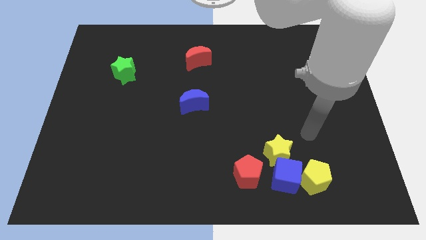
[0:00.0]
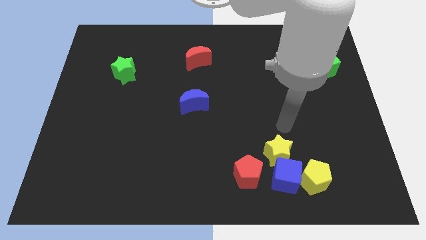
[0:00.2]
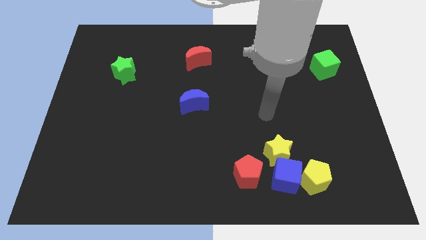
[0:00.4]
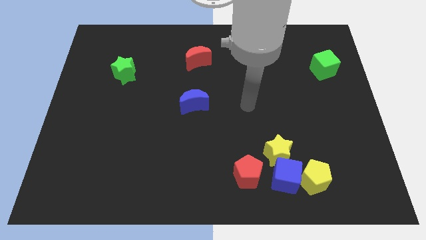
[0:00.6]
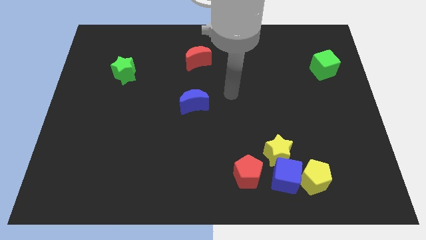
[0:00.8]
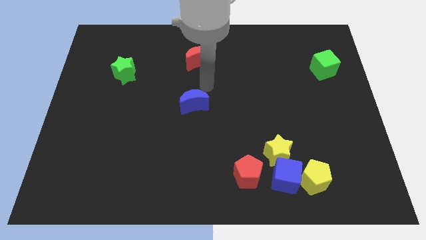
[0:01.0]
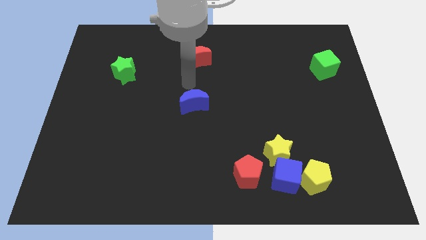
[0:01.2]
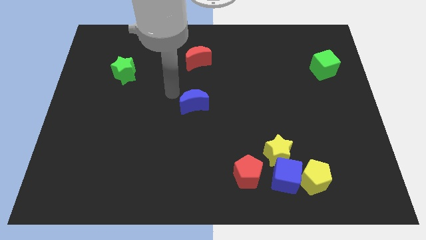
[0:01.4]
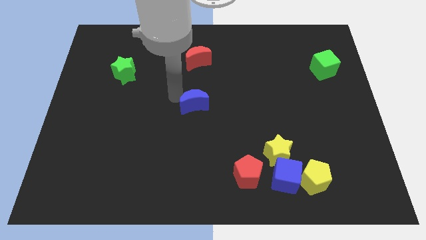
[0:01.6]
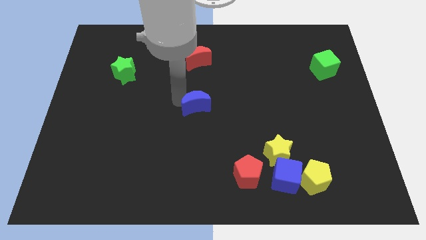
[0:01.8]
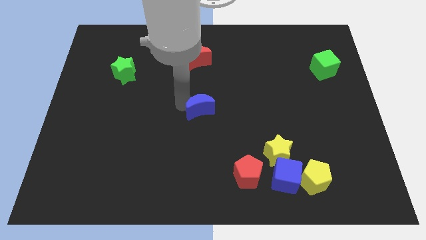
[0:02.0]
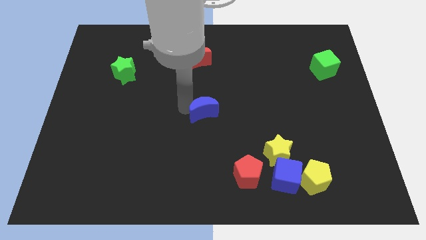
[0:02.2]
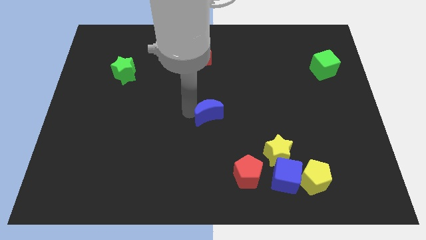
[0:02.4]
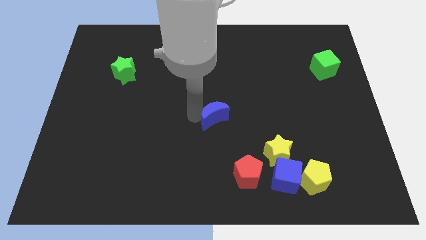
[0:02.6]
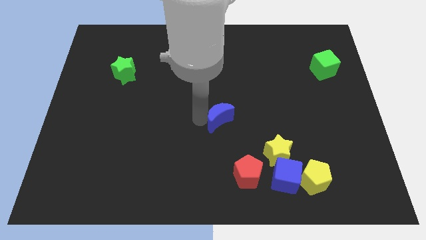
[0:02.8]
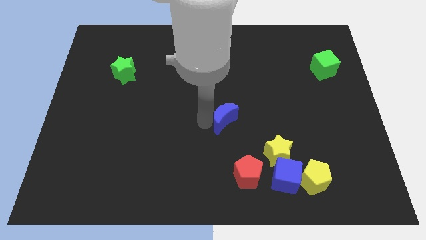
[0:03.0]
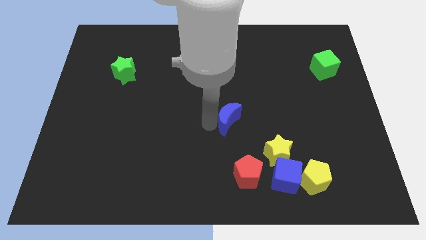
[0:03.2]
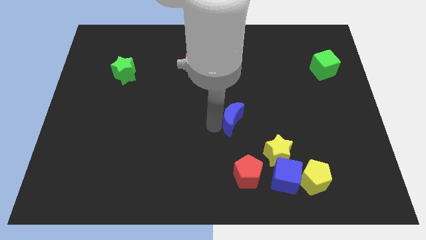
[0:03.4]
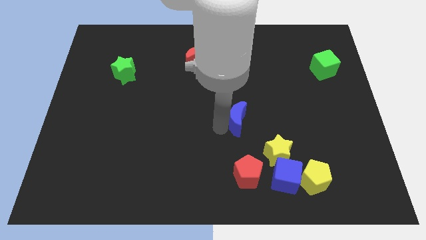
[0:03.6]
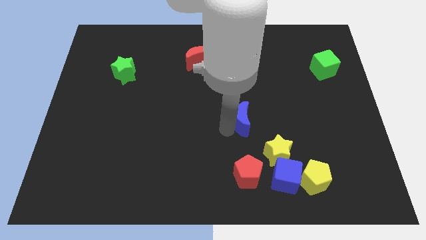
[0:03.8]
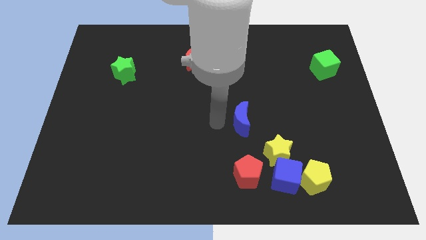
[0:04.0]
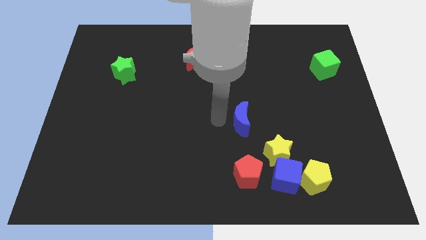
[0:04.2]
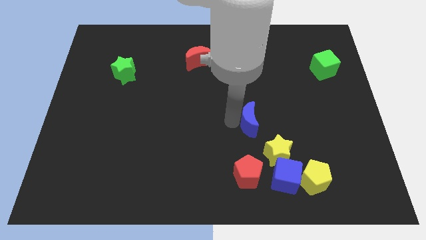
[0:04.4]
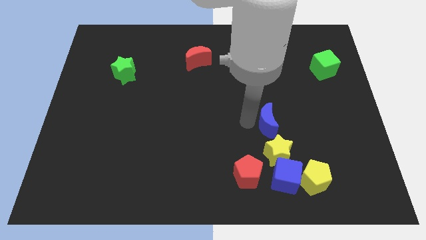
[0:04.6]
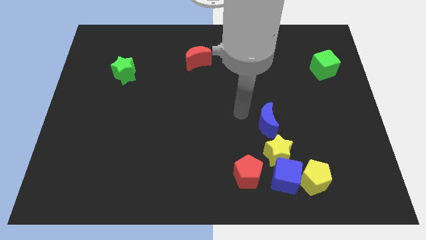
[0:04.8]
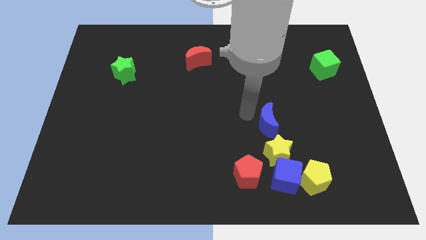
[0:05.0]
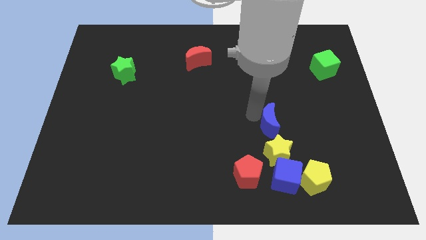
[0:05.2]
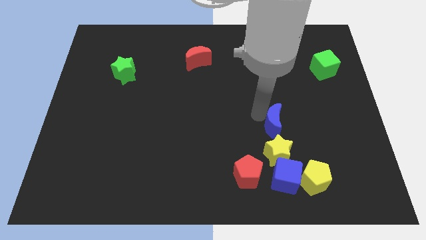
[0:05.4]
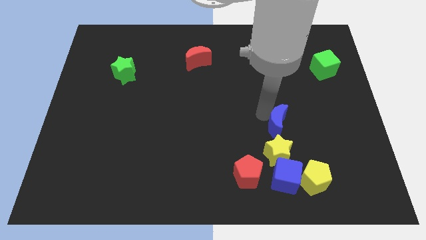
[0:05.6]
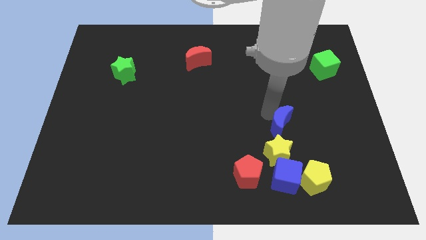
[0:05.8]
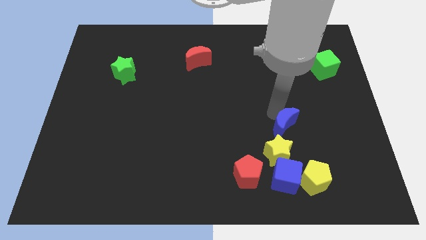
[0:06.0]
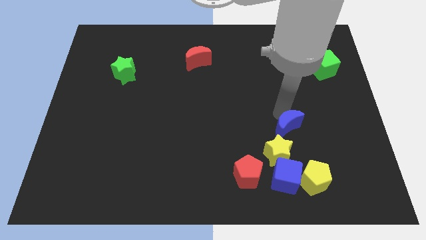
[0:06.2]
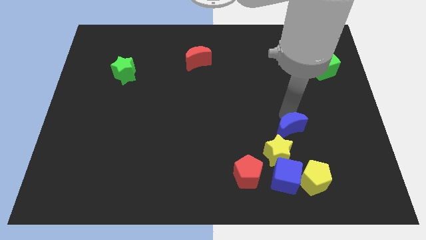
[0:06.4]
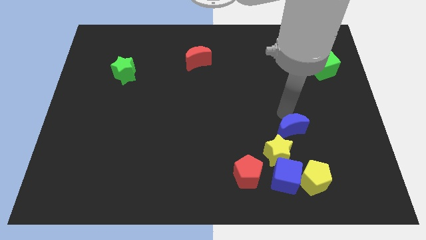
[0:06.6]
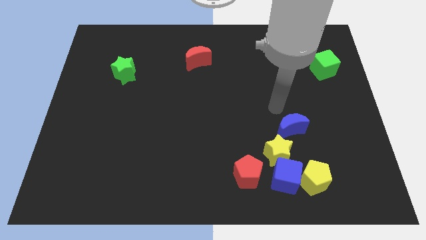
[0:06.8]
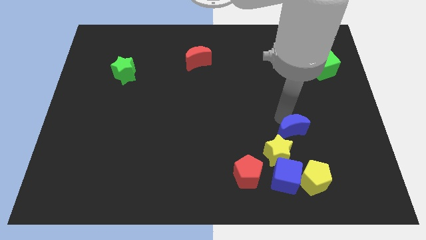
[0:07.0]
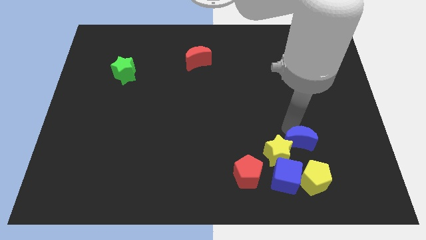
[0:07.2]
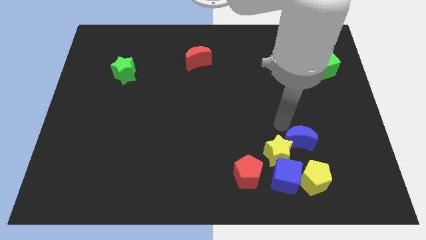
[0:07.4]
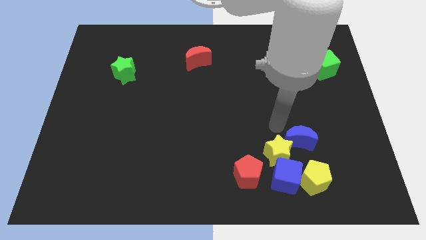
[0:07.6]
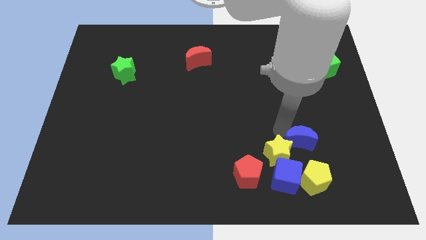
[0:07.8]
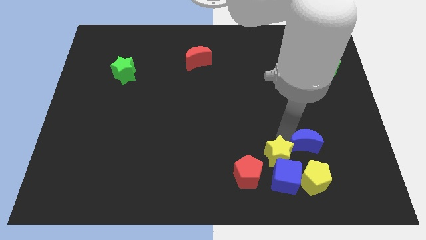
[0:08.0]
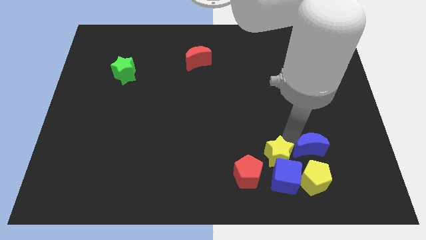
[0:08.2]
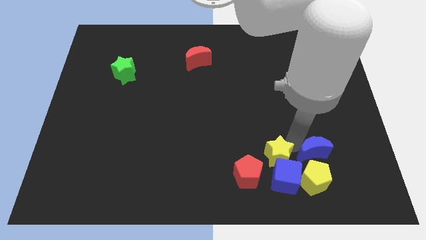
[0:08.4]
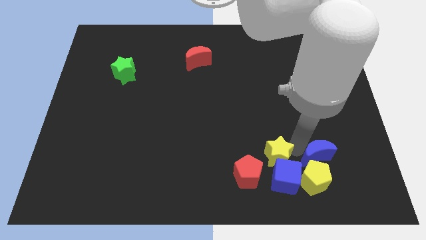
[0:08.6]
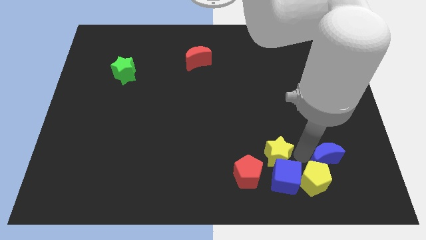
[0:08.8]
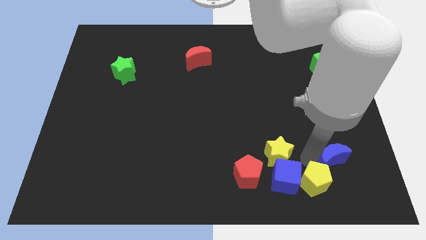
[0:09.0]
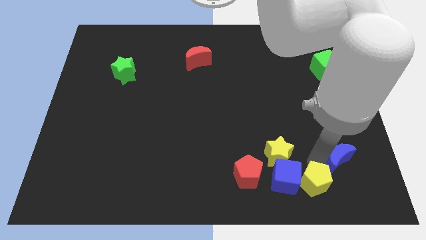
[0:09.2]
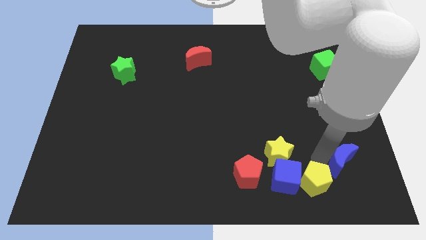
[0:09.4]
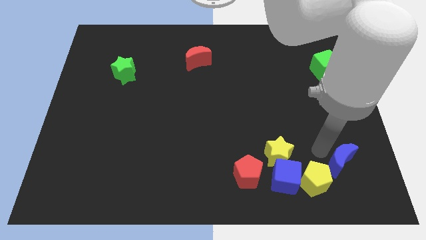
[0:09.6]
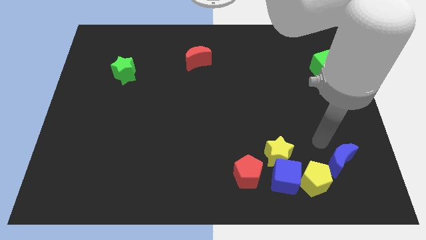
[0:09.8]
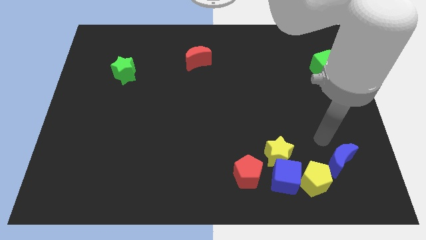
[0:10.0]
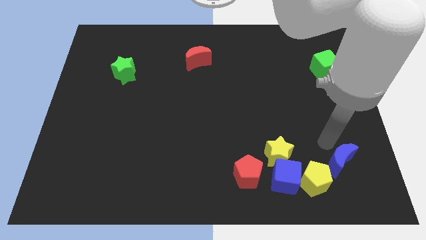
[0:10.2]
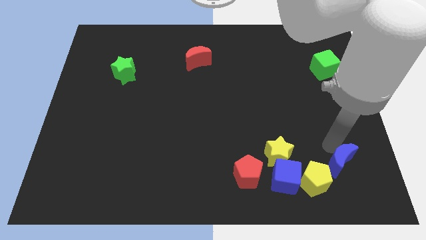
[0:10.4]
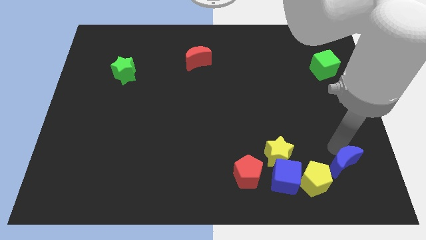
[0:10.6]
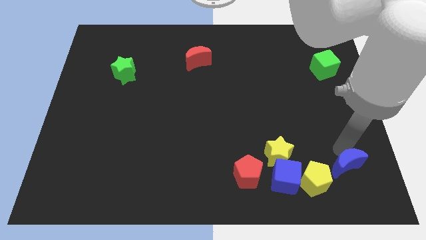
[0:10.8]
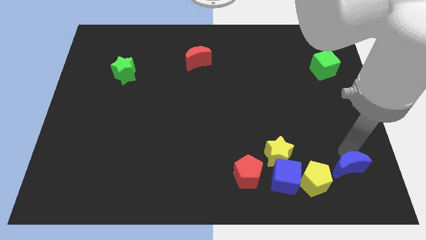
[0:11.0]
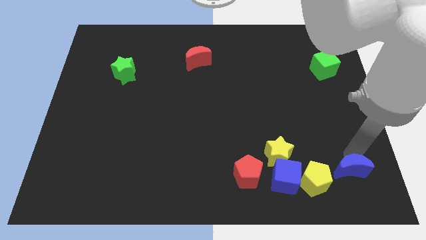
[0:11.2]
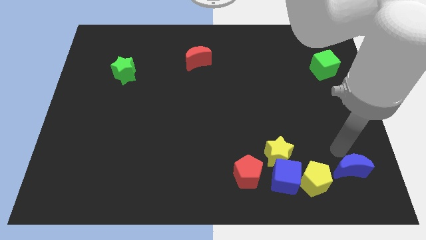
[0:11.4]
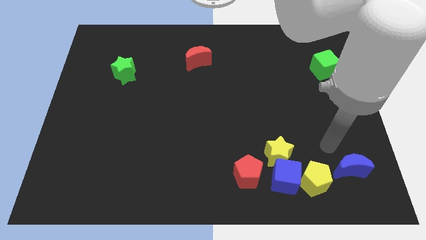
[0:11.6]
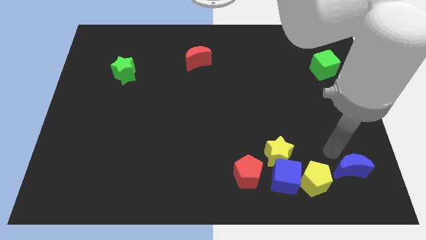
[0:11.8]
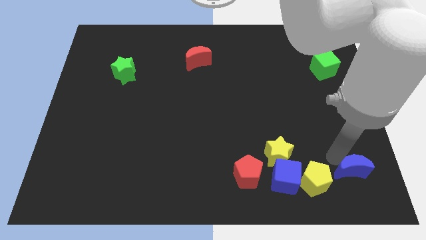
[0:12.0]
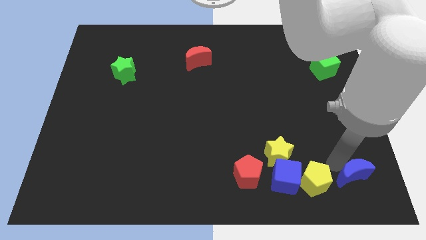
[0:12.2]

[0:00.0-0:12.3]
push the blue moon to the bottom right corner

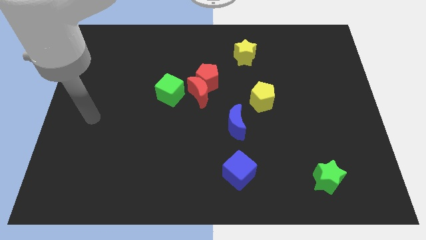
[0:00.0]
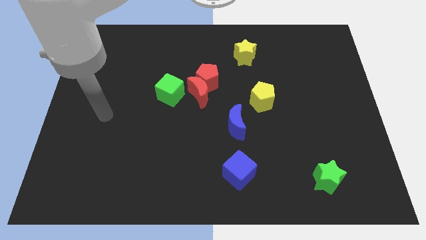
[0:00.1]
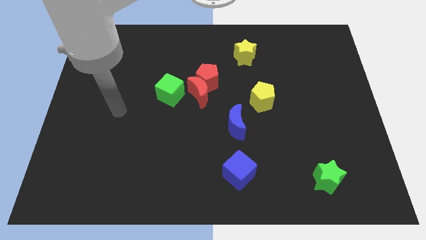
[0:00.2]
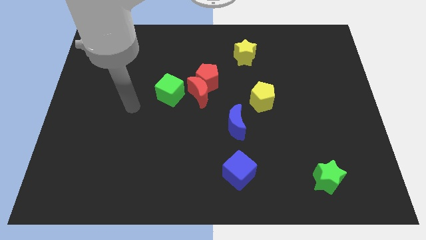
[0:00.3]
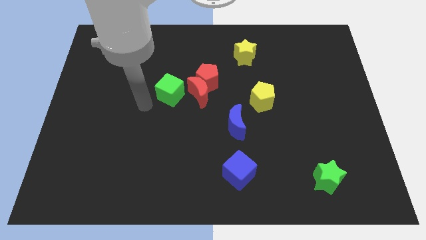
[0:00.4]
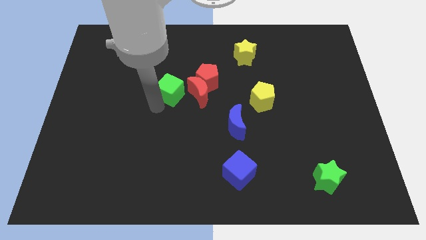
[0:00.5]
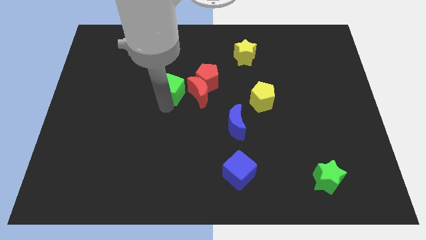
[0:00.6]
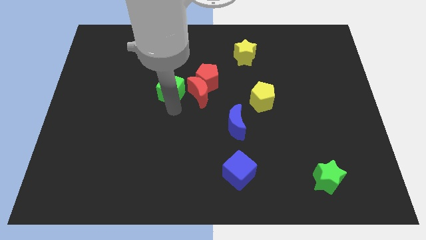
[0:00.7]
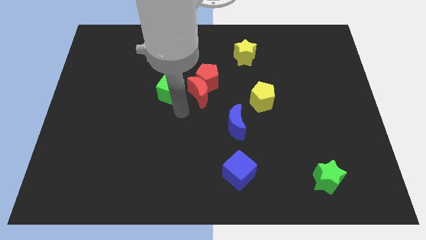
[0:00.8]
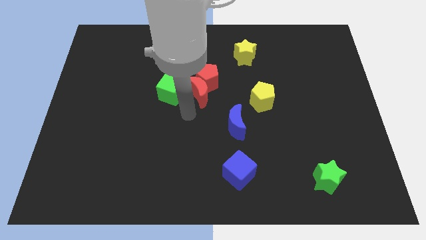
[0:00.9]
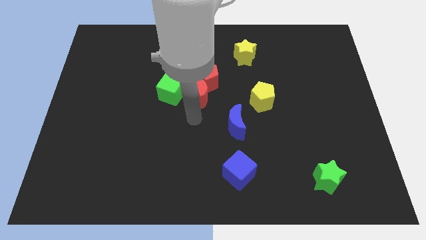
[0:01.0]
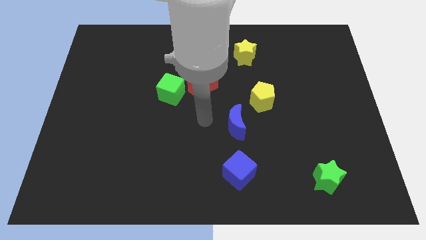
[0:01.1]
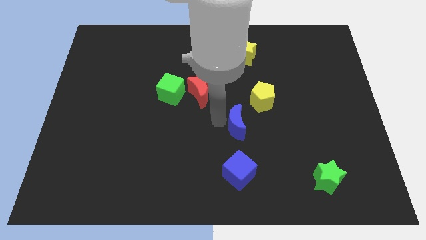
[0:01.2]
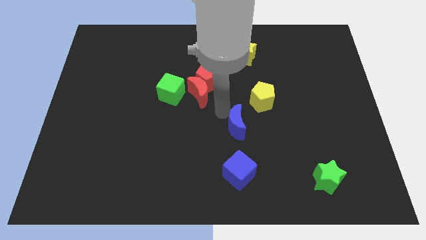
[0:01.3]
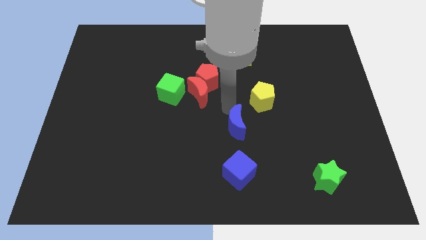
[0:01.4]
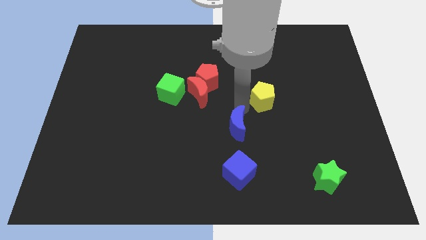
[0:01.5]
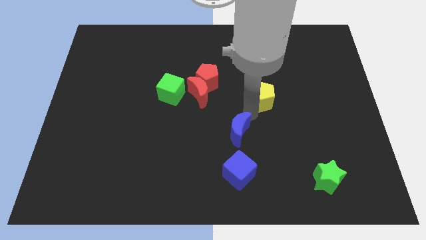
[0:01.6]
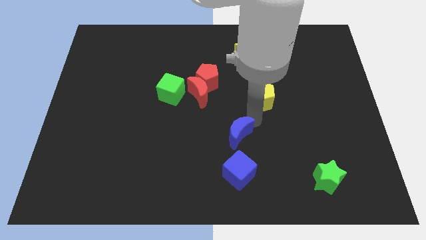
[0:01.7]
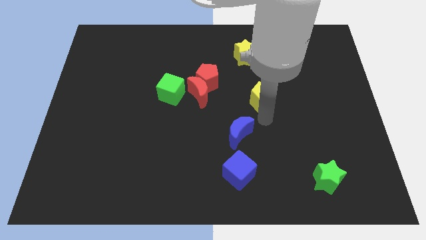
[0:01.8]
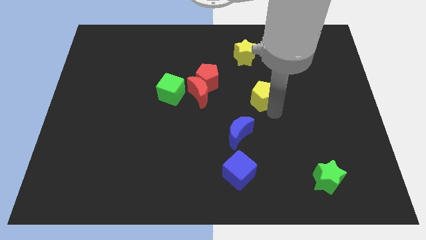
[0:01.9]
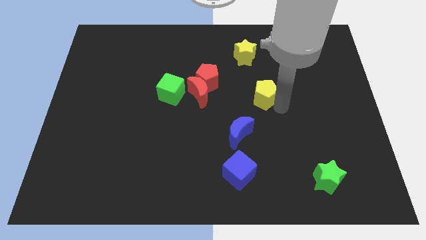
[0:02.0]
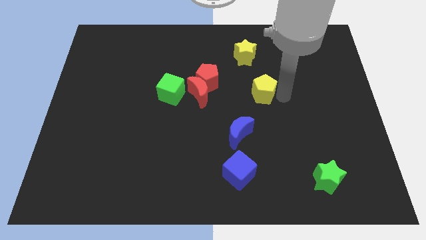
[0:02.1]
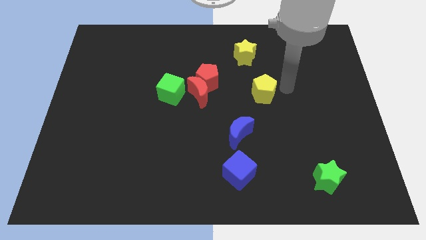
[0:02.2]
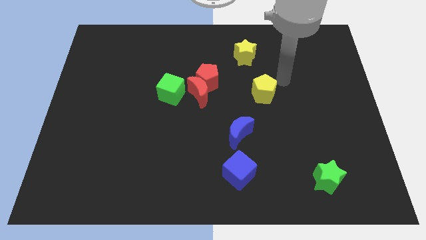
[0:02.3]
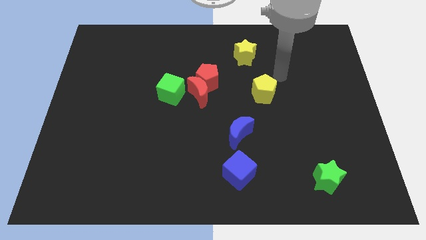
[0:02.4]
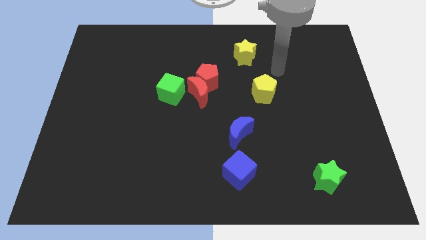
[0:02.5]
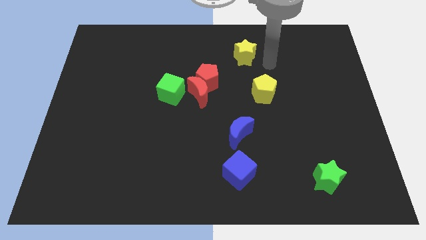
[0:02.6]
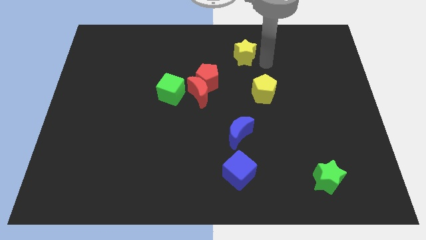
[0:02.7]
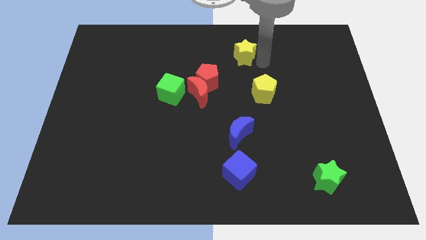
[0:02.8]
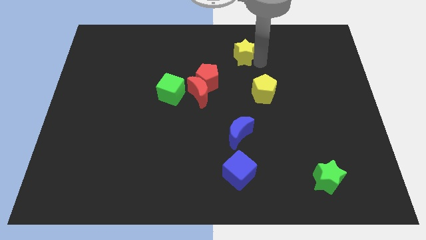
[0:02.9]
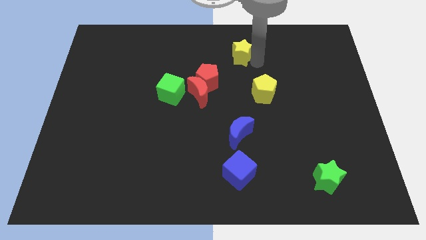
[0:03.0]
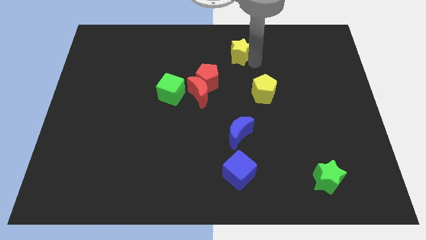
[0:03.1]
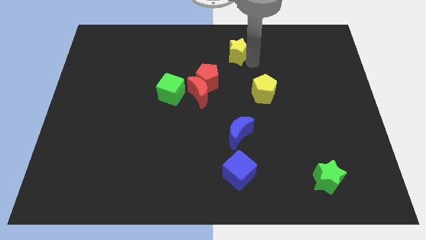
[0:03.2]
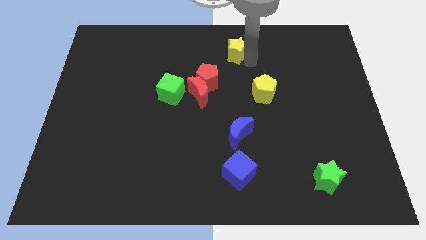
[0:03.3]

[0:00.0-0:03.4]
move the yellow star to the towards your base
